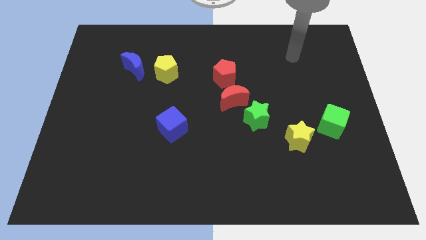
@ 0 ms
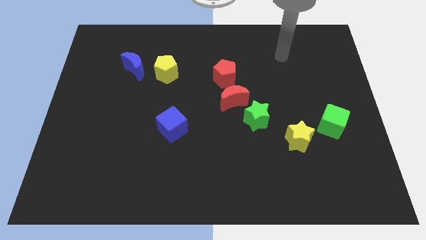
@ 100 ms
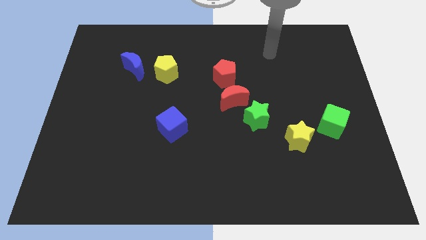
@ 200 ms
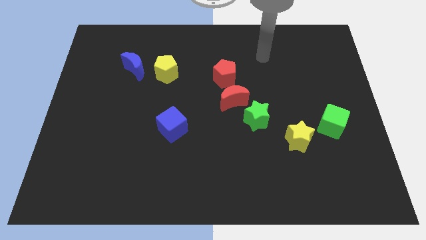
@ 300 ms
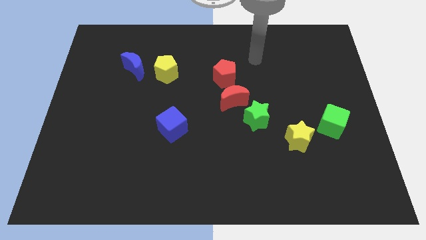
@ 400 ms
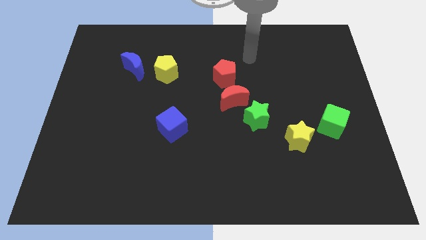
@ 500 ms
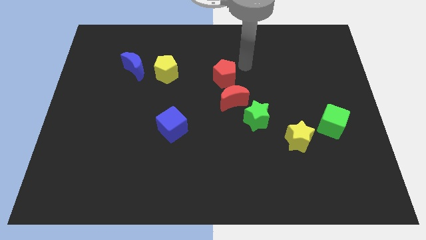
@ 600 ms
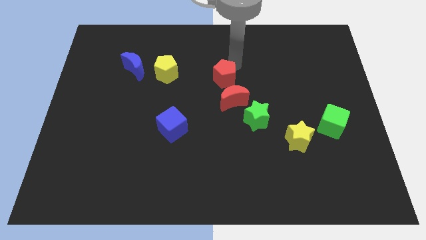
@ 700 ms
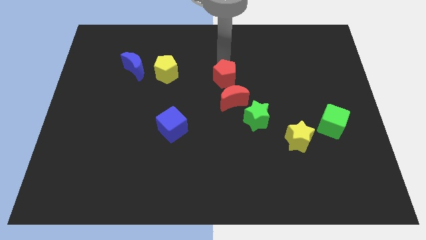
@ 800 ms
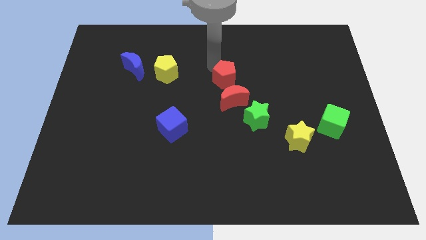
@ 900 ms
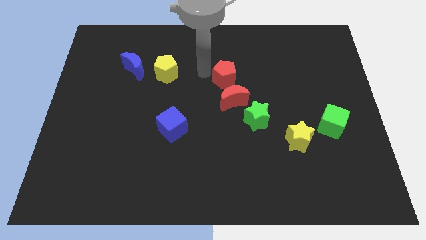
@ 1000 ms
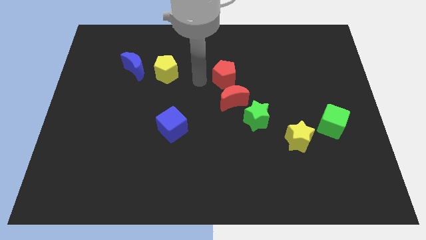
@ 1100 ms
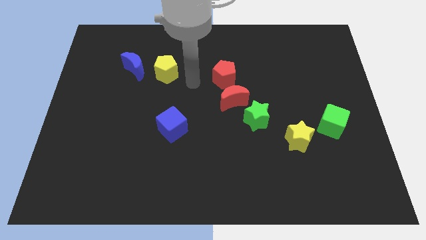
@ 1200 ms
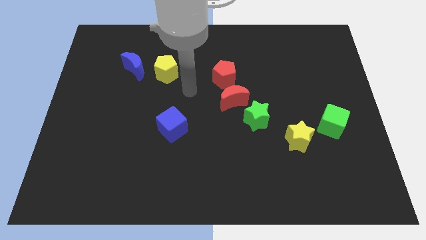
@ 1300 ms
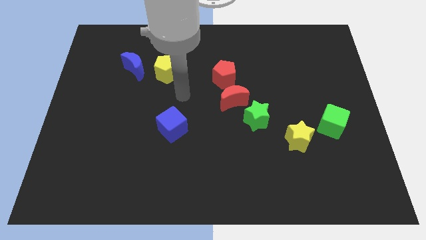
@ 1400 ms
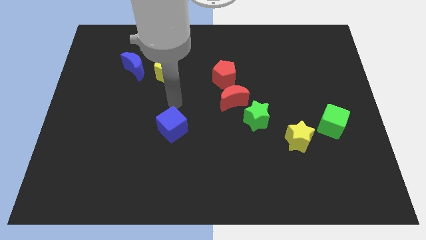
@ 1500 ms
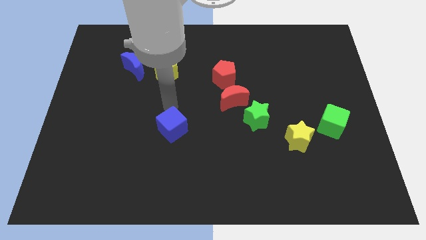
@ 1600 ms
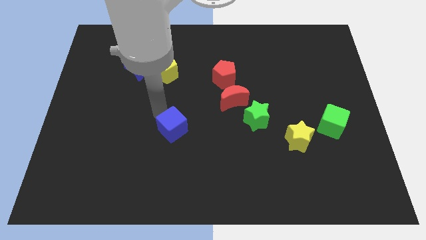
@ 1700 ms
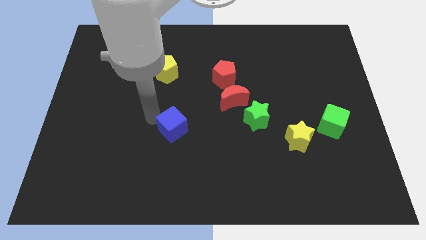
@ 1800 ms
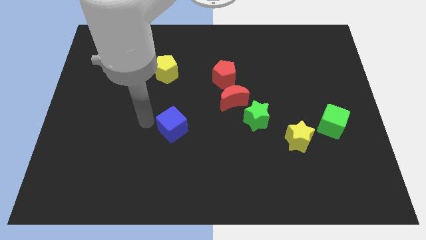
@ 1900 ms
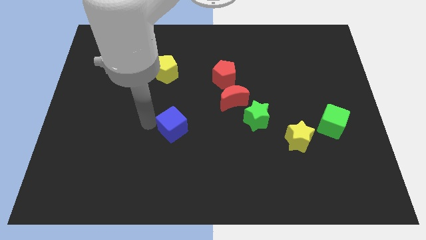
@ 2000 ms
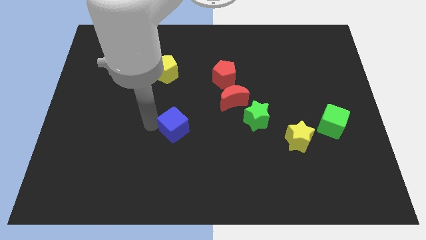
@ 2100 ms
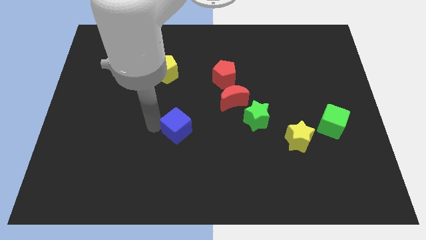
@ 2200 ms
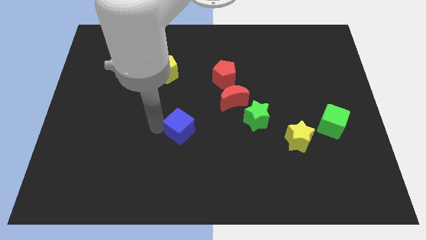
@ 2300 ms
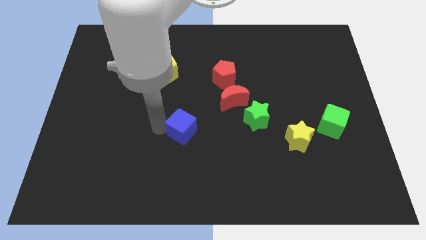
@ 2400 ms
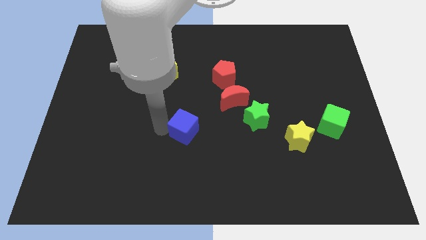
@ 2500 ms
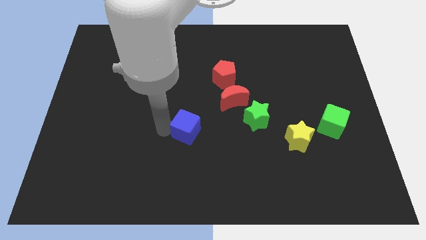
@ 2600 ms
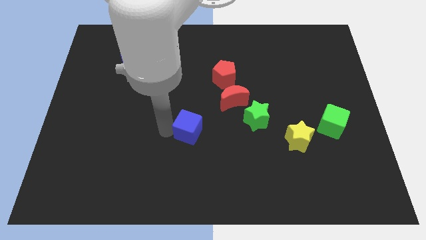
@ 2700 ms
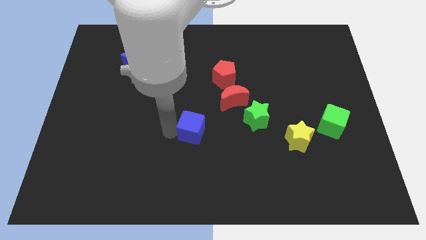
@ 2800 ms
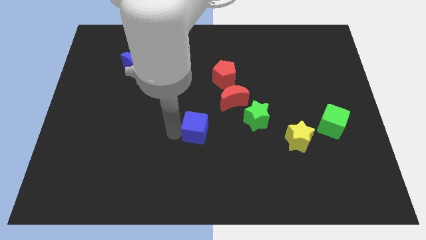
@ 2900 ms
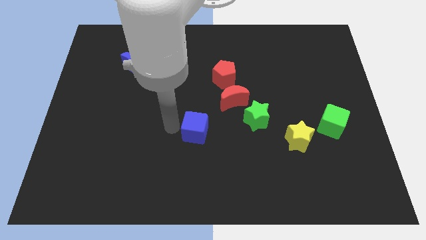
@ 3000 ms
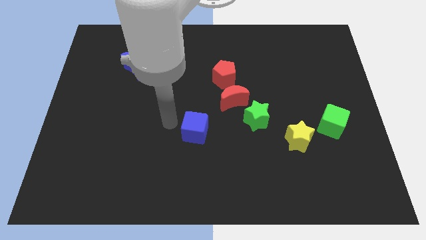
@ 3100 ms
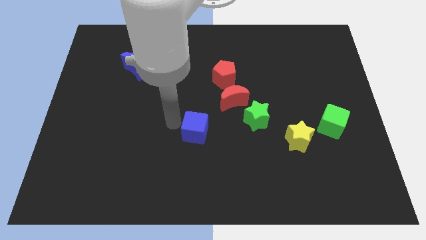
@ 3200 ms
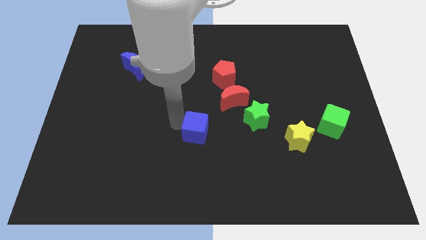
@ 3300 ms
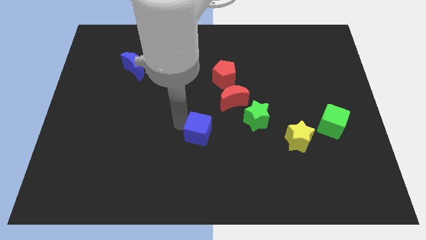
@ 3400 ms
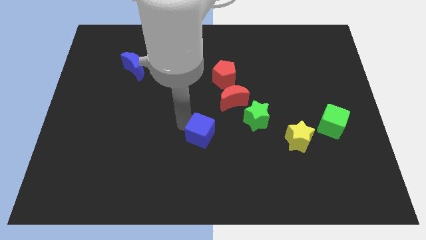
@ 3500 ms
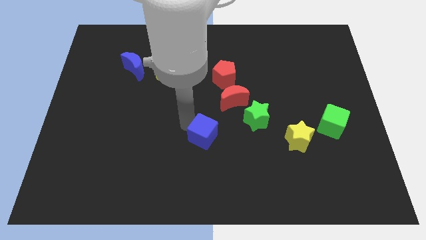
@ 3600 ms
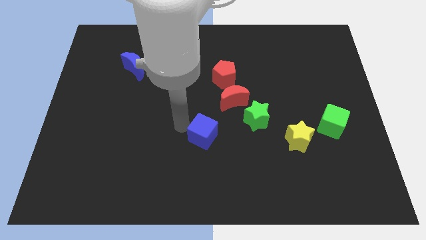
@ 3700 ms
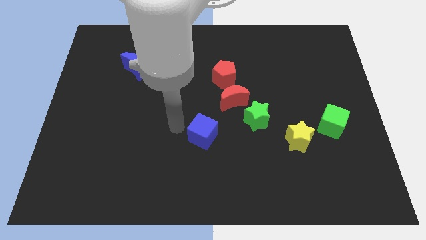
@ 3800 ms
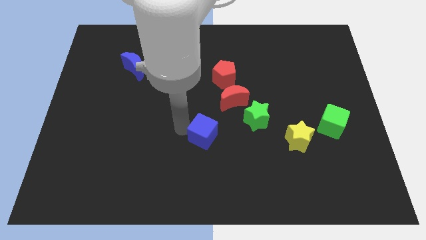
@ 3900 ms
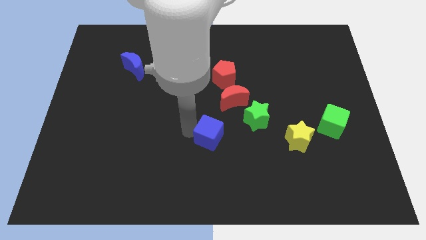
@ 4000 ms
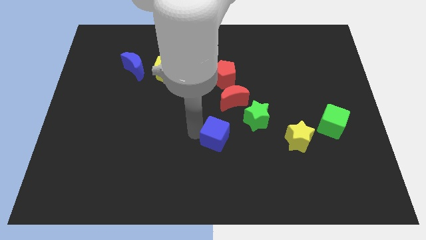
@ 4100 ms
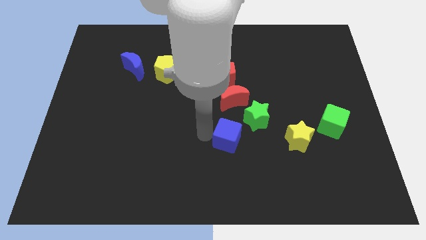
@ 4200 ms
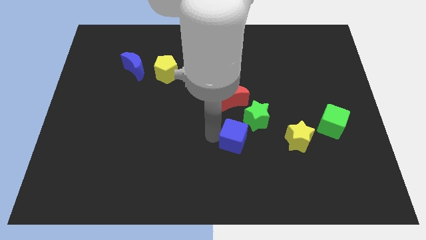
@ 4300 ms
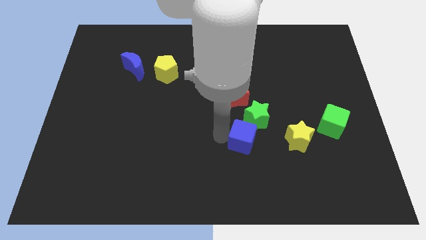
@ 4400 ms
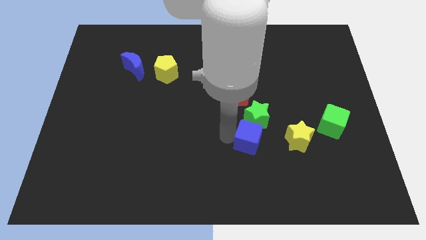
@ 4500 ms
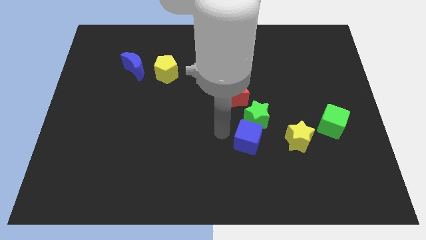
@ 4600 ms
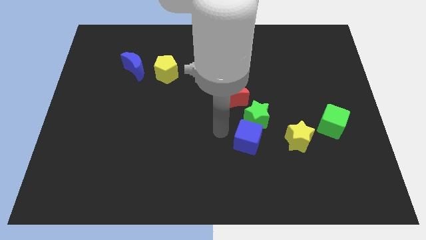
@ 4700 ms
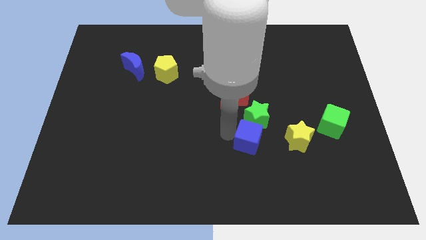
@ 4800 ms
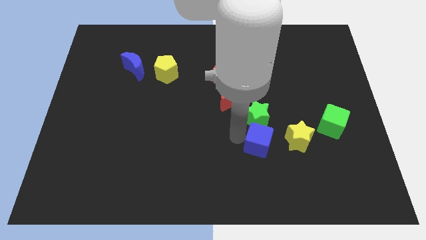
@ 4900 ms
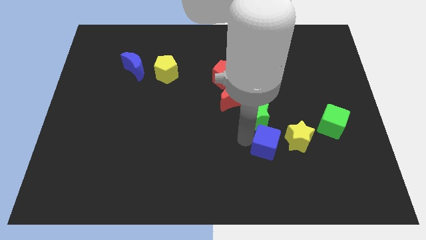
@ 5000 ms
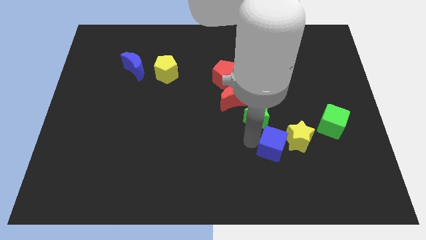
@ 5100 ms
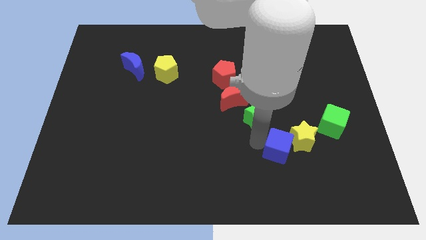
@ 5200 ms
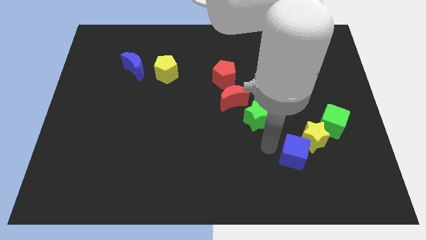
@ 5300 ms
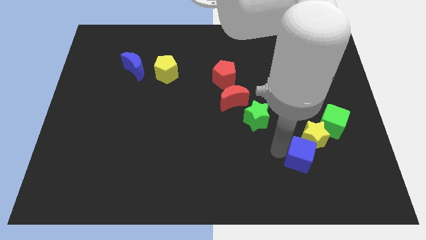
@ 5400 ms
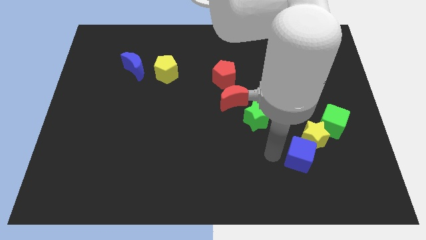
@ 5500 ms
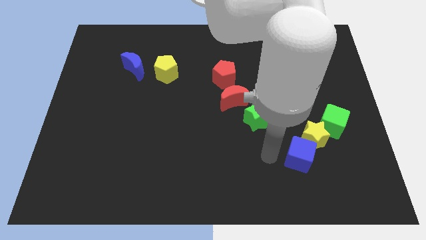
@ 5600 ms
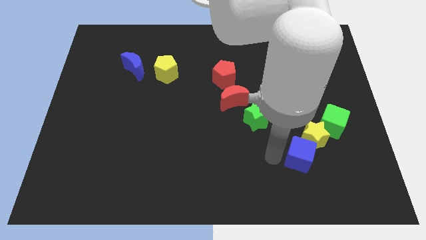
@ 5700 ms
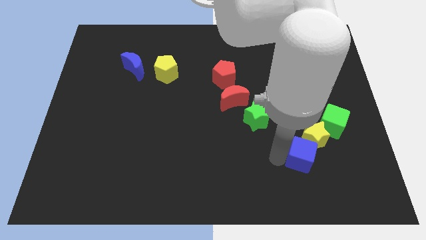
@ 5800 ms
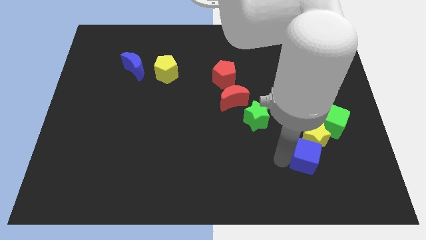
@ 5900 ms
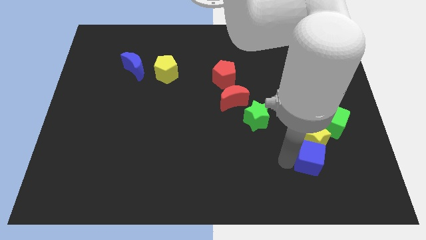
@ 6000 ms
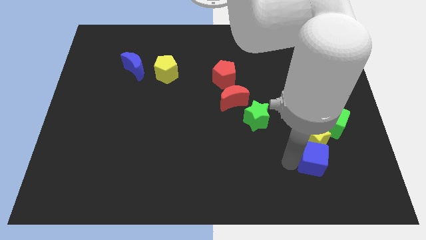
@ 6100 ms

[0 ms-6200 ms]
push the blue cube diagonally down and to the right of the yellow star

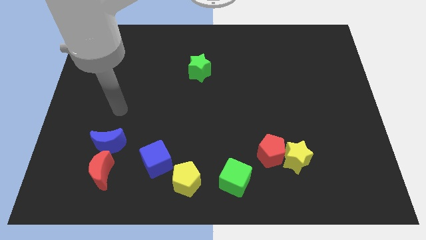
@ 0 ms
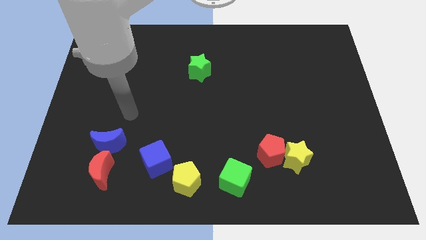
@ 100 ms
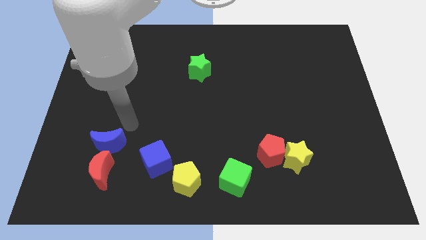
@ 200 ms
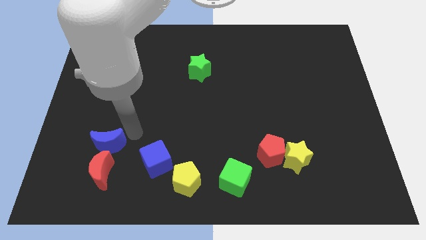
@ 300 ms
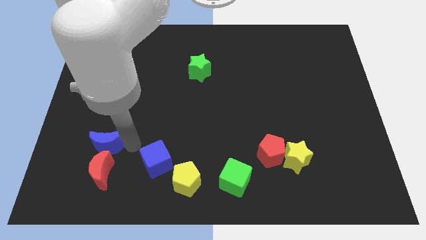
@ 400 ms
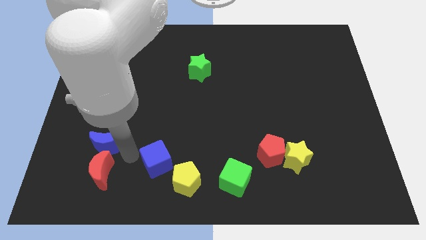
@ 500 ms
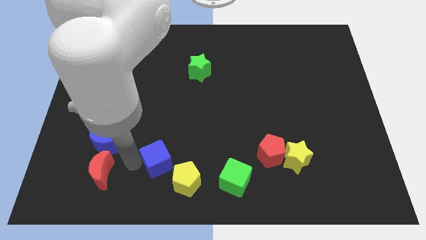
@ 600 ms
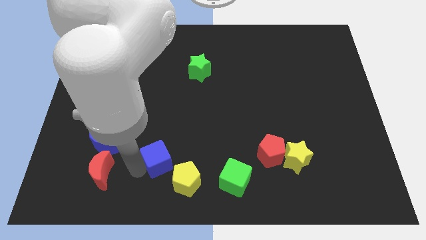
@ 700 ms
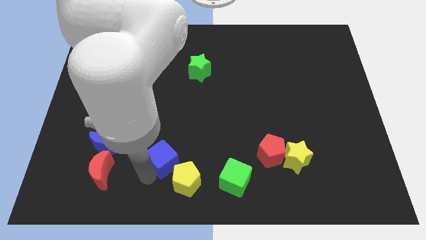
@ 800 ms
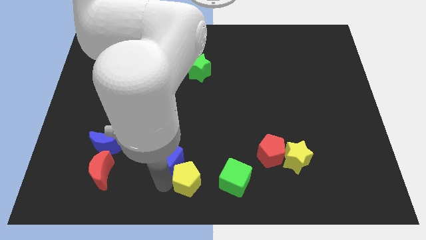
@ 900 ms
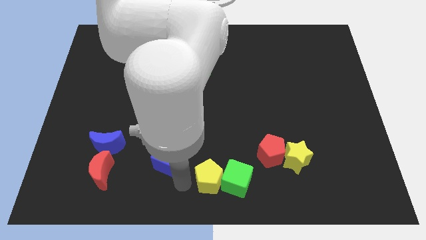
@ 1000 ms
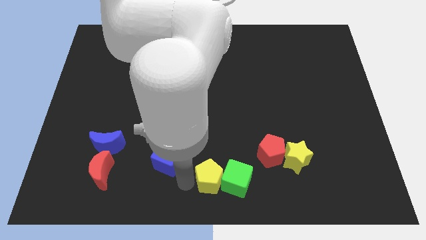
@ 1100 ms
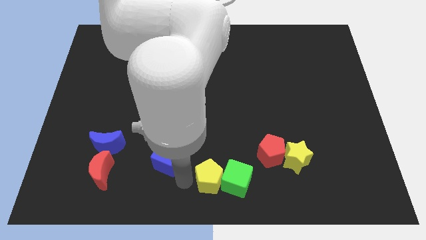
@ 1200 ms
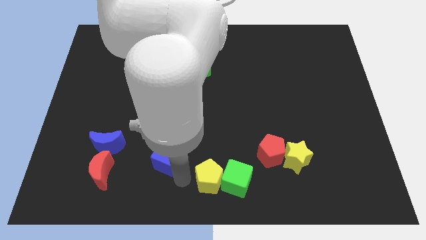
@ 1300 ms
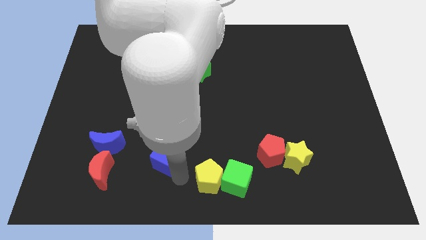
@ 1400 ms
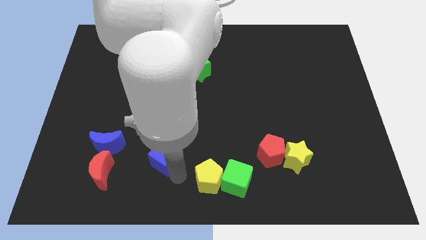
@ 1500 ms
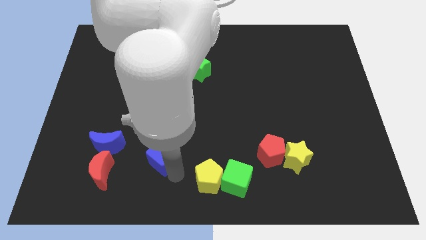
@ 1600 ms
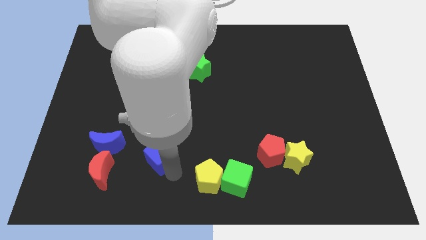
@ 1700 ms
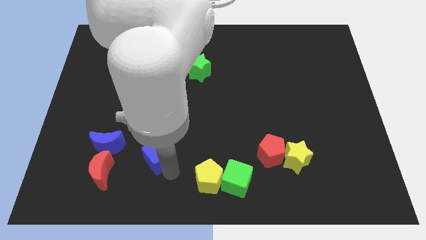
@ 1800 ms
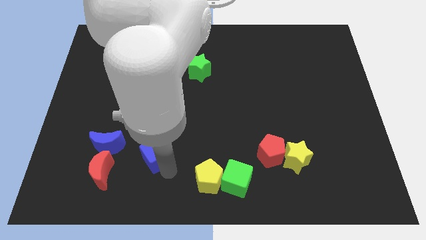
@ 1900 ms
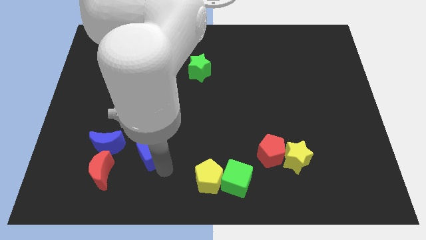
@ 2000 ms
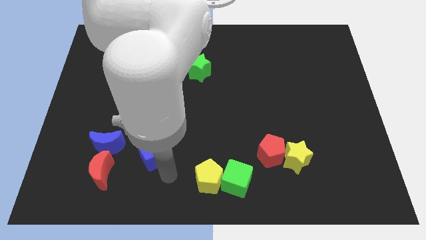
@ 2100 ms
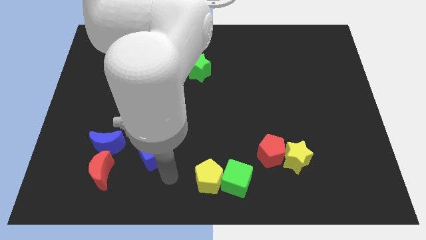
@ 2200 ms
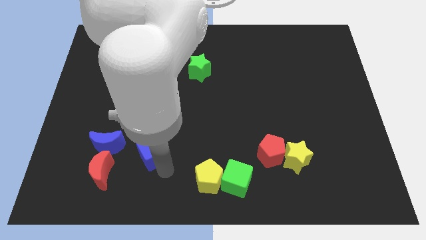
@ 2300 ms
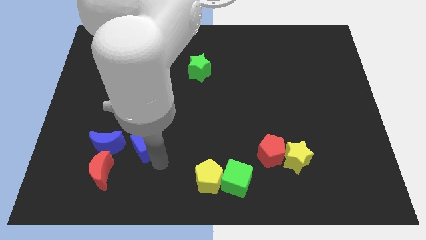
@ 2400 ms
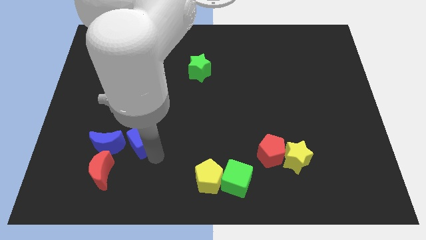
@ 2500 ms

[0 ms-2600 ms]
put the blue cube to the top right of the blue moon
